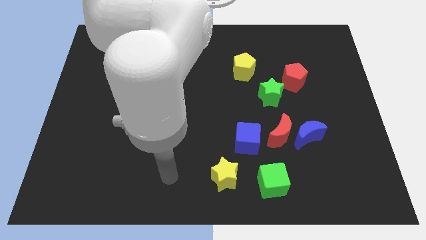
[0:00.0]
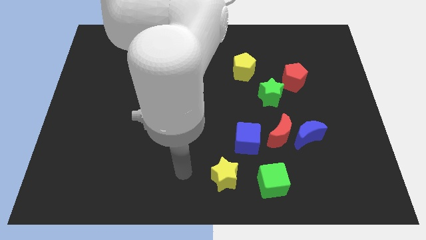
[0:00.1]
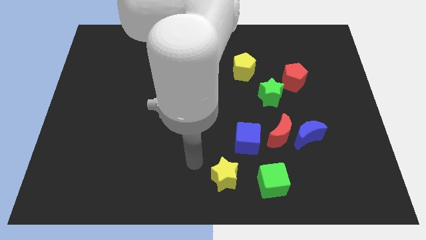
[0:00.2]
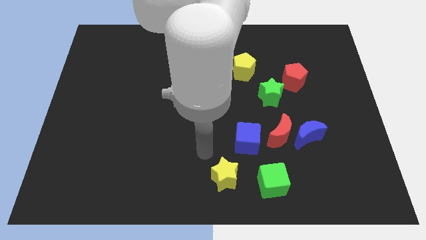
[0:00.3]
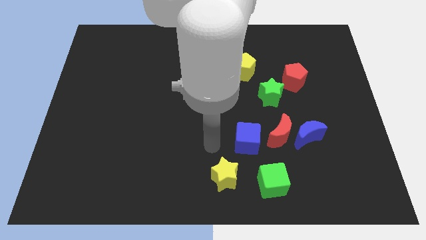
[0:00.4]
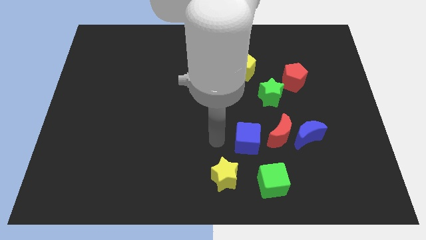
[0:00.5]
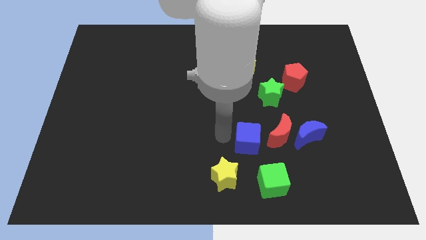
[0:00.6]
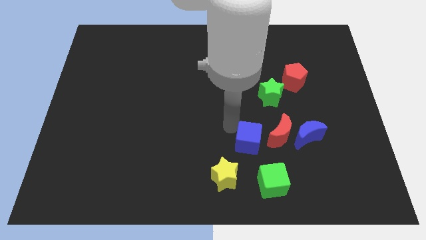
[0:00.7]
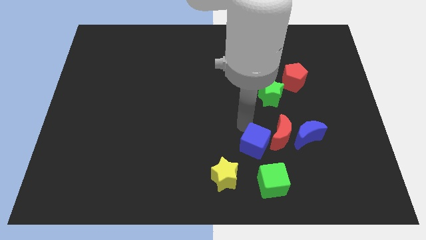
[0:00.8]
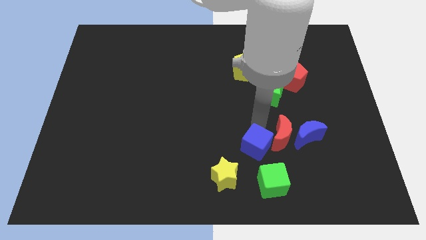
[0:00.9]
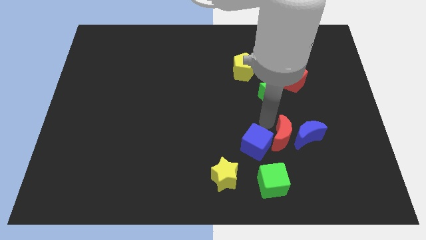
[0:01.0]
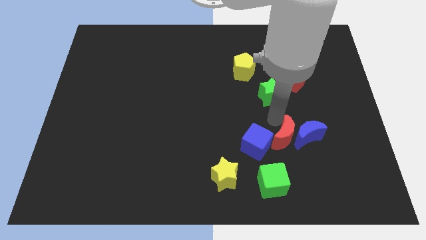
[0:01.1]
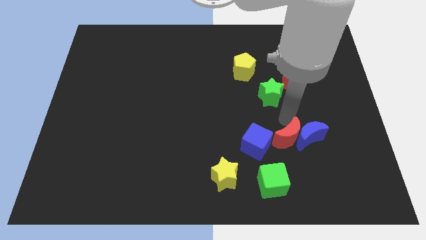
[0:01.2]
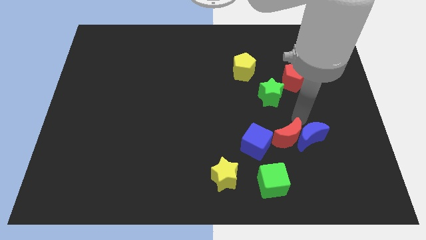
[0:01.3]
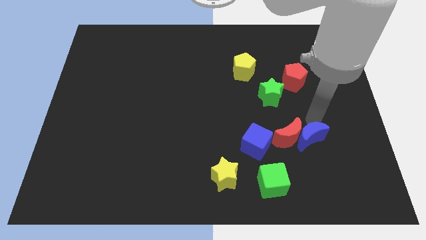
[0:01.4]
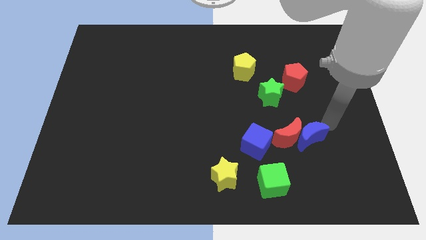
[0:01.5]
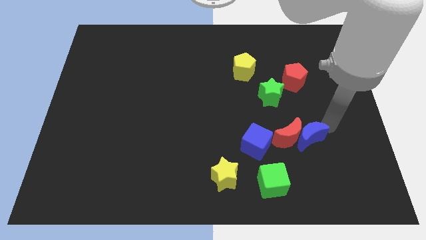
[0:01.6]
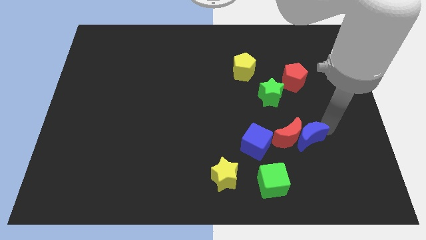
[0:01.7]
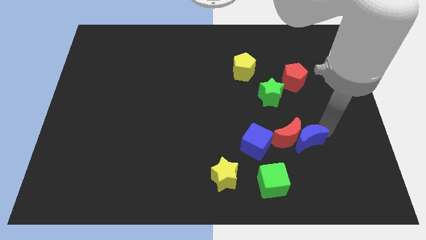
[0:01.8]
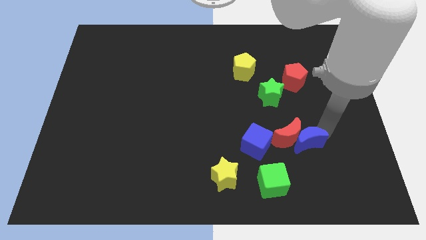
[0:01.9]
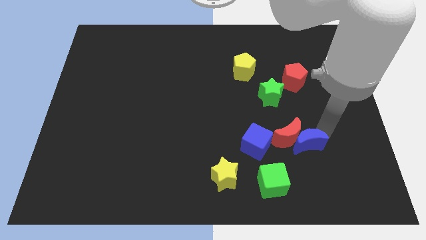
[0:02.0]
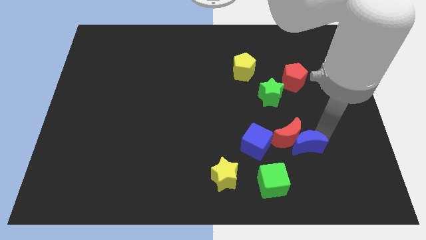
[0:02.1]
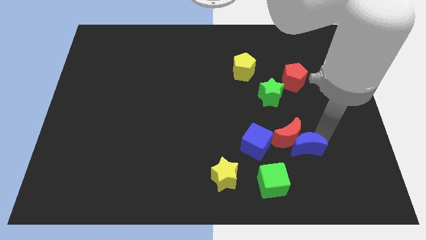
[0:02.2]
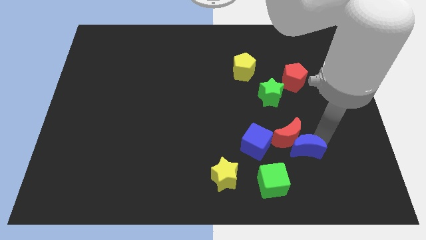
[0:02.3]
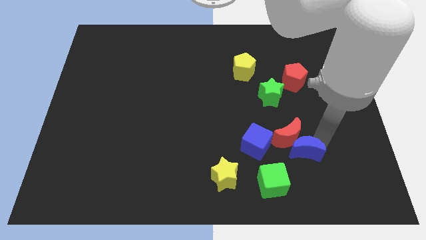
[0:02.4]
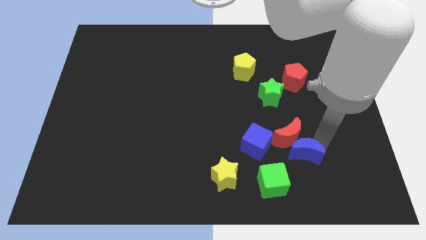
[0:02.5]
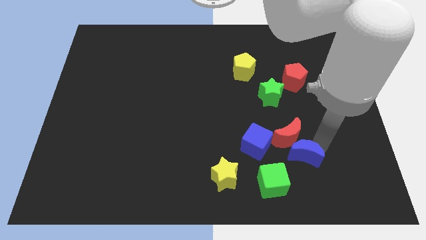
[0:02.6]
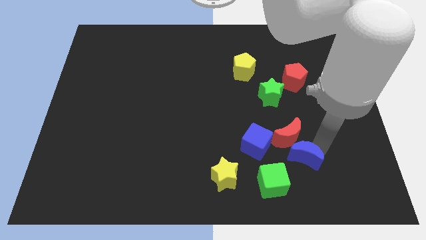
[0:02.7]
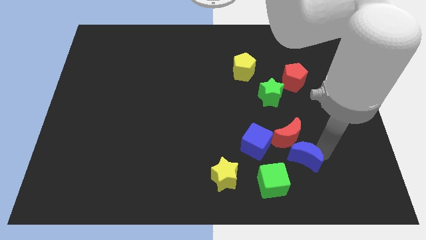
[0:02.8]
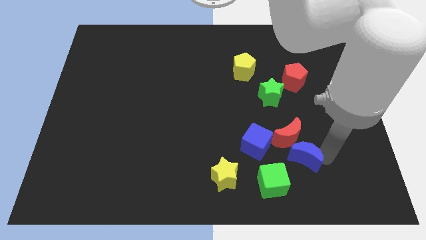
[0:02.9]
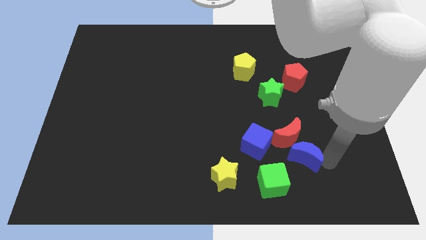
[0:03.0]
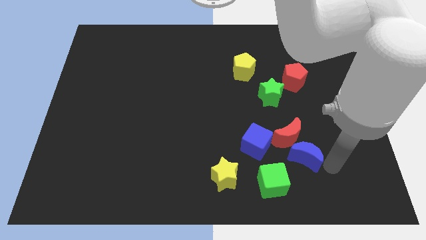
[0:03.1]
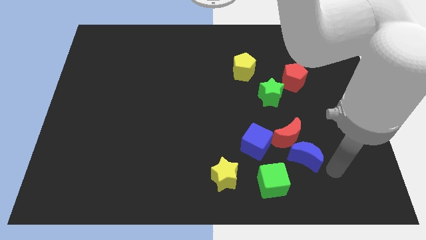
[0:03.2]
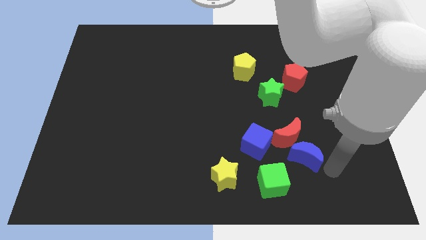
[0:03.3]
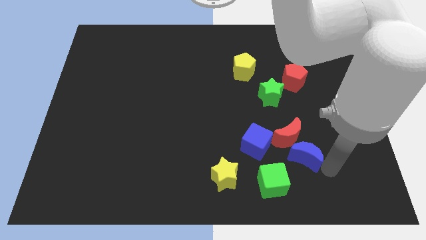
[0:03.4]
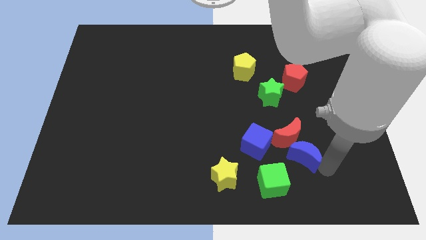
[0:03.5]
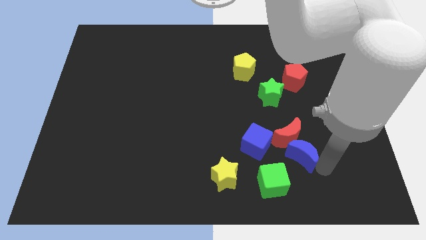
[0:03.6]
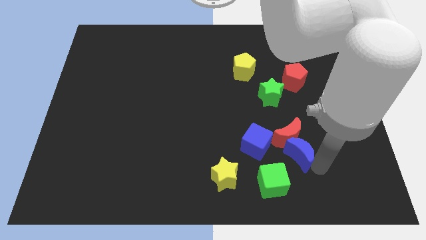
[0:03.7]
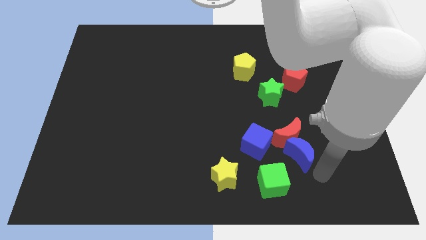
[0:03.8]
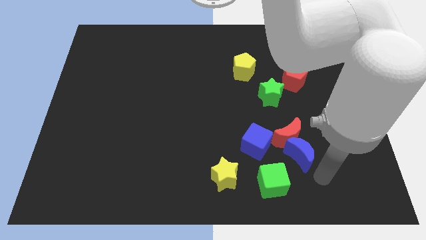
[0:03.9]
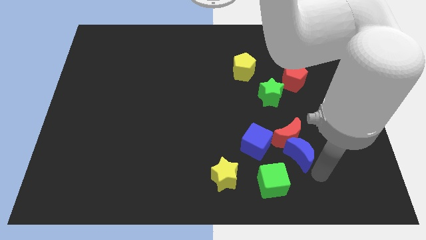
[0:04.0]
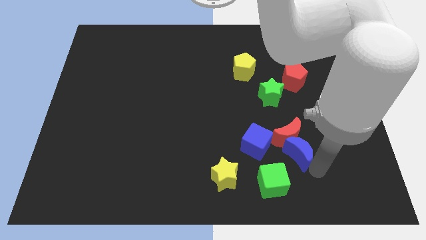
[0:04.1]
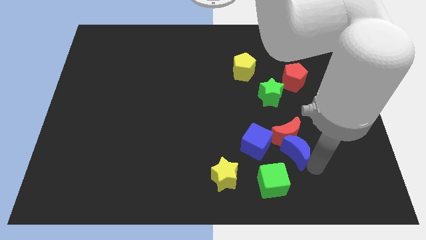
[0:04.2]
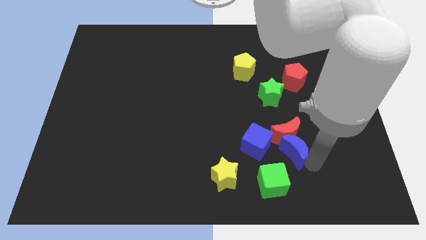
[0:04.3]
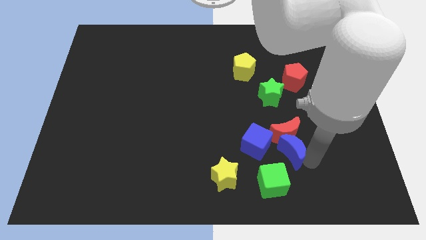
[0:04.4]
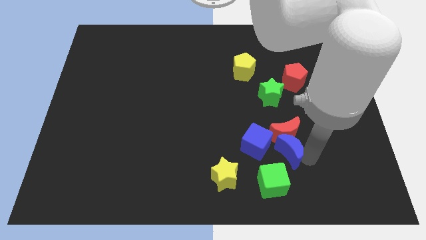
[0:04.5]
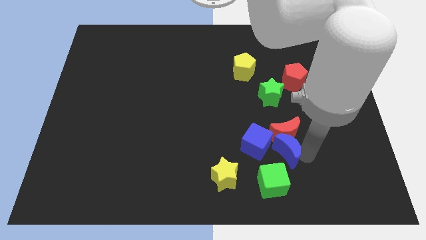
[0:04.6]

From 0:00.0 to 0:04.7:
put the blue moon to the bottom of the green star

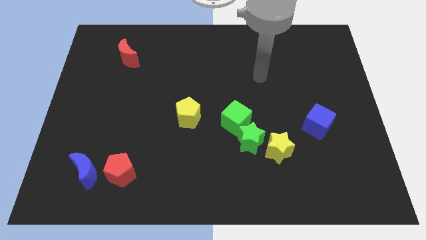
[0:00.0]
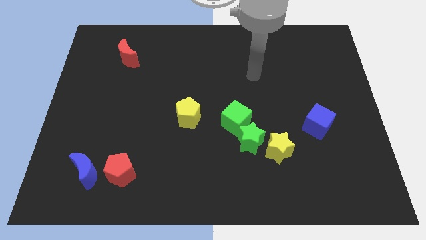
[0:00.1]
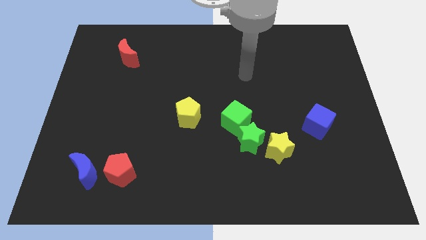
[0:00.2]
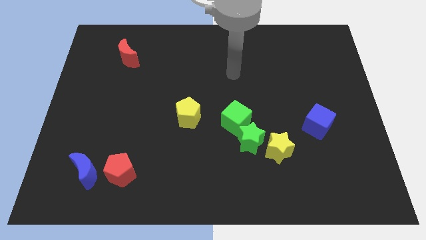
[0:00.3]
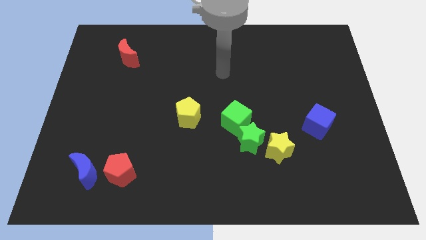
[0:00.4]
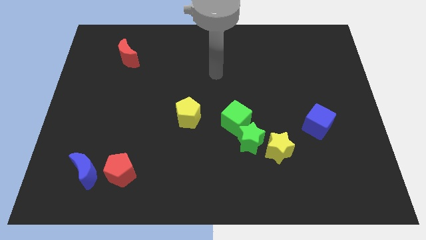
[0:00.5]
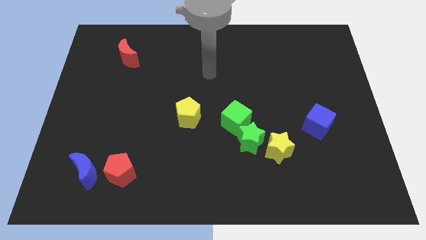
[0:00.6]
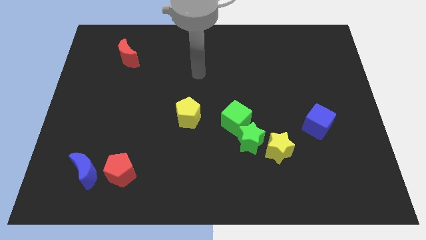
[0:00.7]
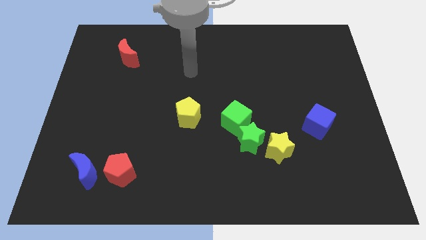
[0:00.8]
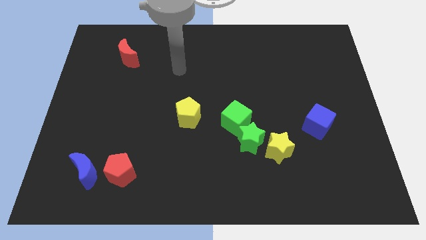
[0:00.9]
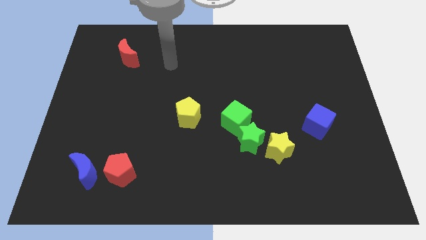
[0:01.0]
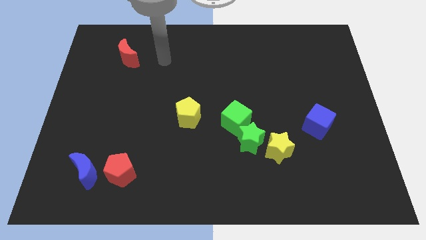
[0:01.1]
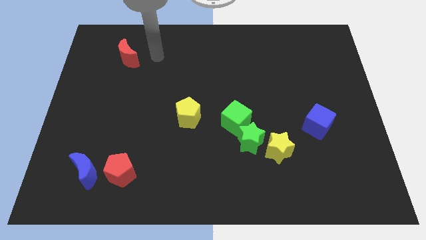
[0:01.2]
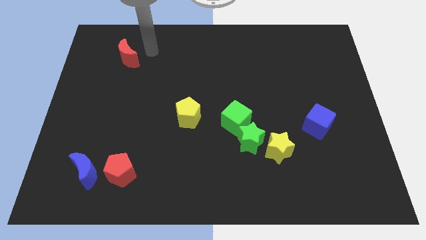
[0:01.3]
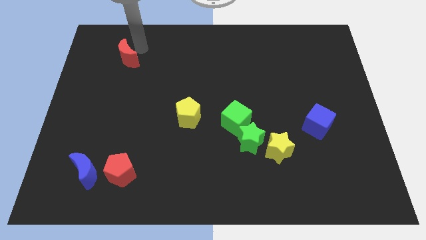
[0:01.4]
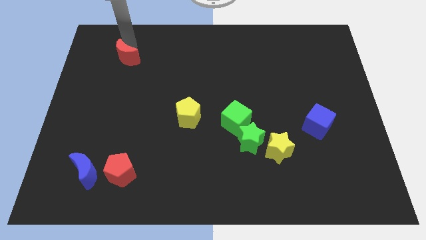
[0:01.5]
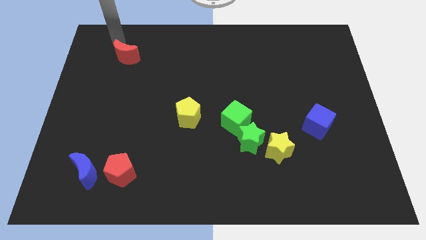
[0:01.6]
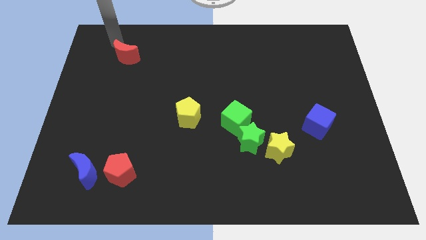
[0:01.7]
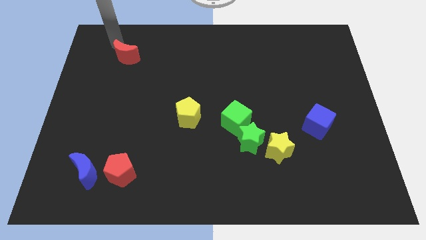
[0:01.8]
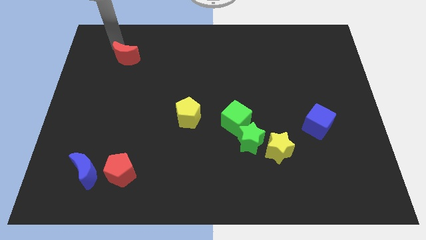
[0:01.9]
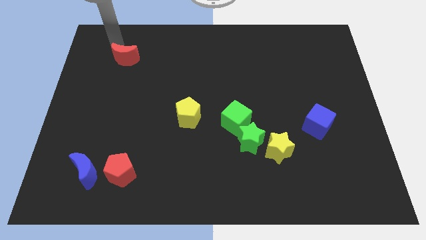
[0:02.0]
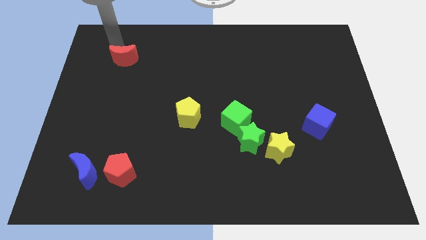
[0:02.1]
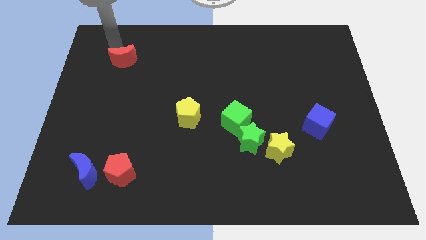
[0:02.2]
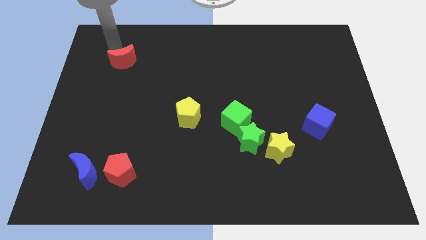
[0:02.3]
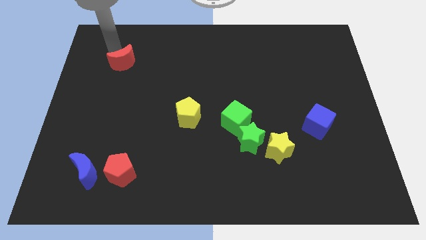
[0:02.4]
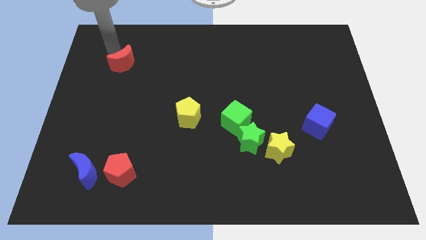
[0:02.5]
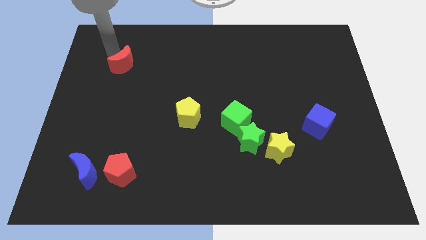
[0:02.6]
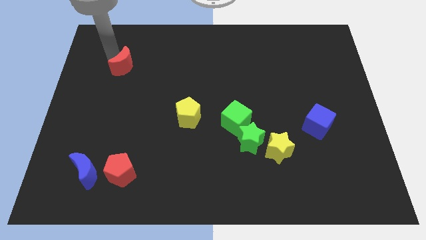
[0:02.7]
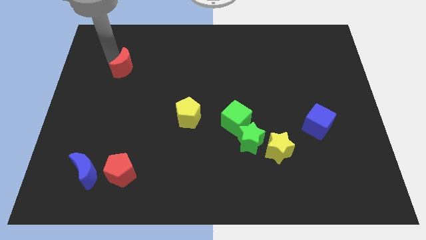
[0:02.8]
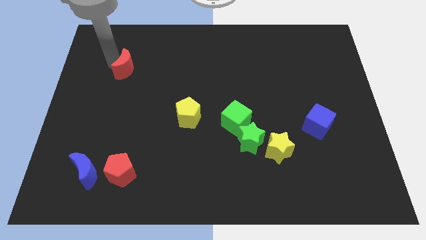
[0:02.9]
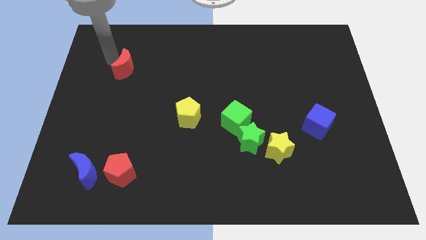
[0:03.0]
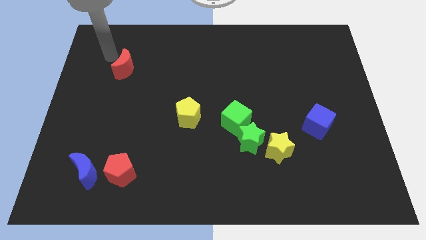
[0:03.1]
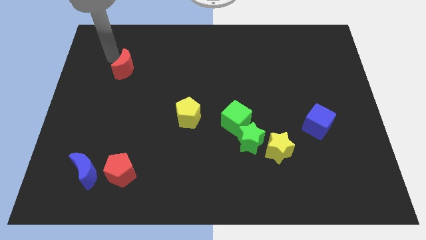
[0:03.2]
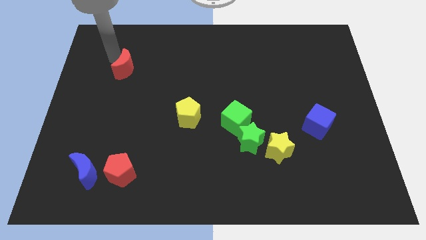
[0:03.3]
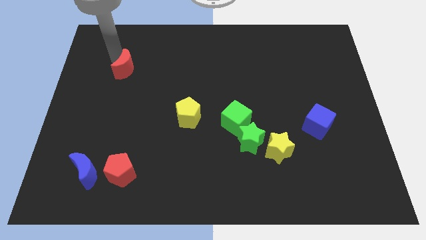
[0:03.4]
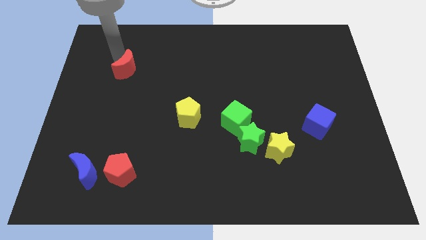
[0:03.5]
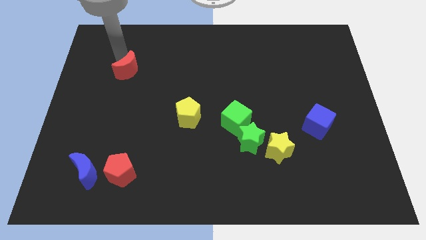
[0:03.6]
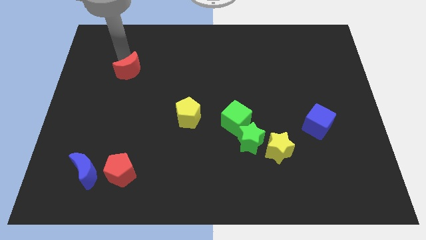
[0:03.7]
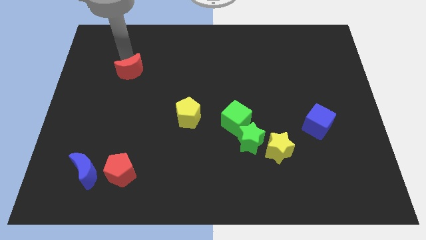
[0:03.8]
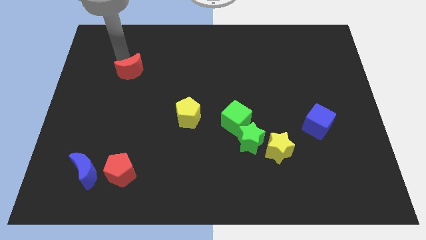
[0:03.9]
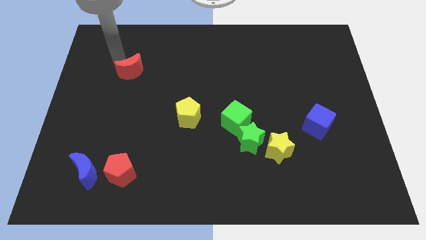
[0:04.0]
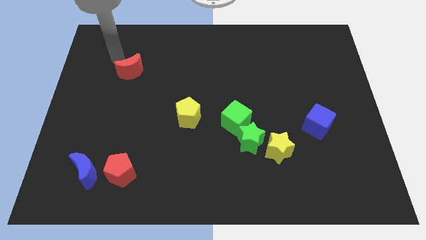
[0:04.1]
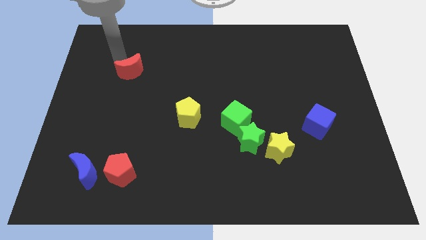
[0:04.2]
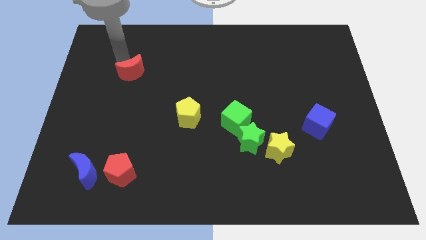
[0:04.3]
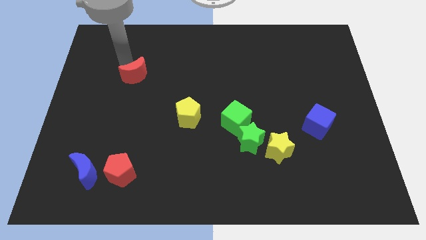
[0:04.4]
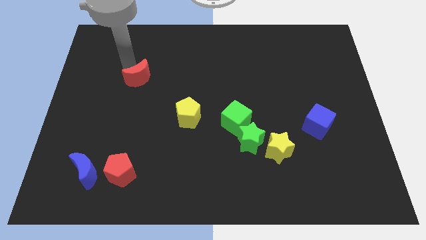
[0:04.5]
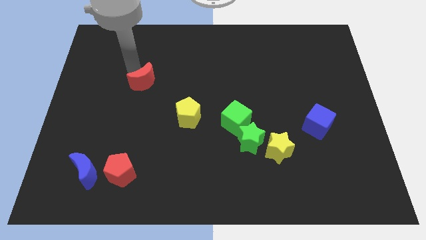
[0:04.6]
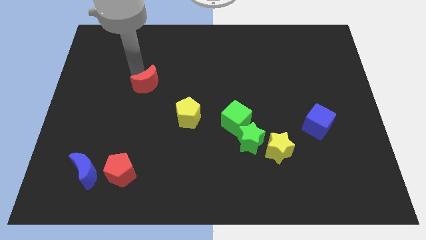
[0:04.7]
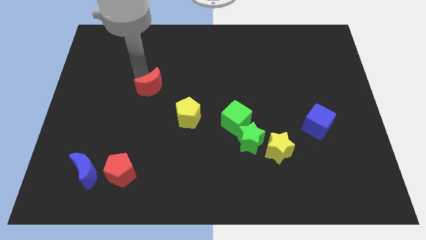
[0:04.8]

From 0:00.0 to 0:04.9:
put the red moon to the top left of the yellow pentagon
